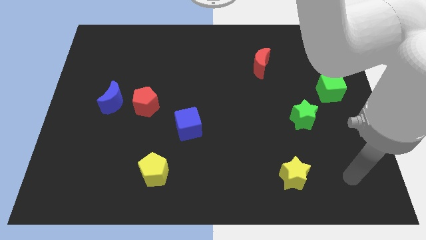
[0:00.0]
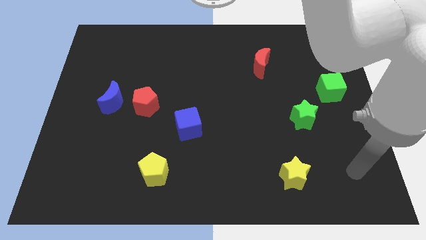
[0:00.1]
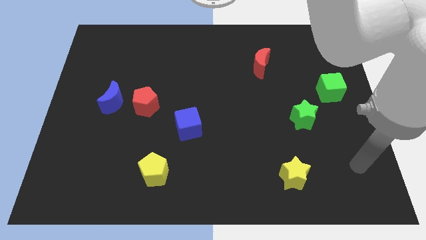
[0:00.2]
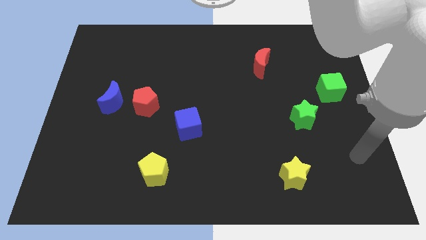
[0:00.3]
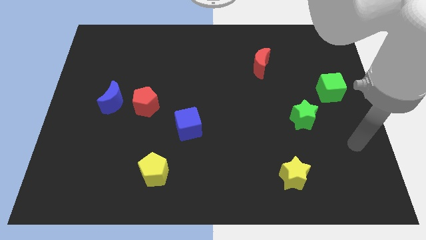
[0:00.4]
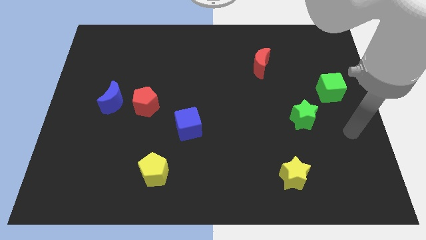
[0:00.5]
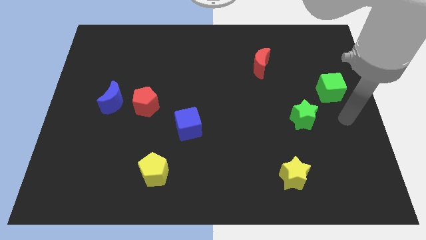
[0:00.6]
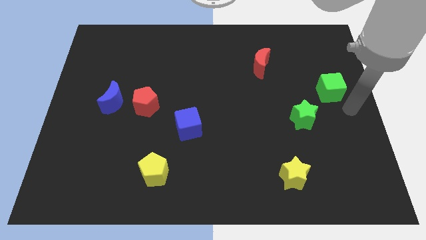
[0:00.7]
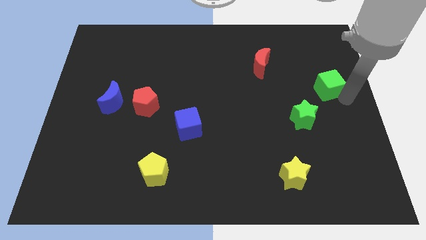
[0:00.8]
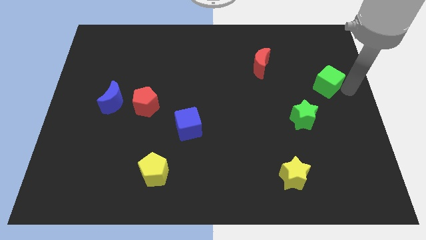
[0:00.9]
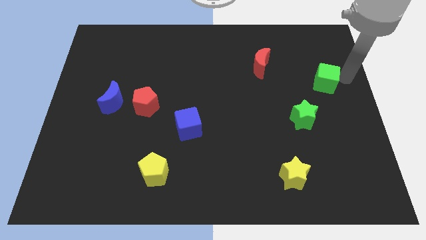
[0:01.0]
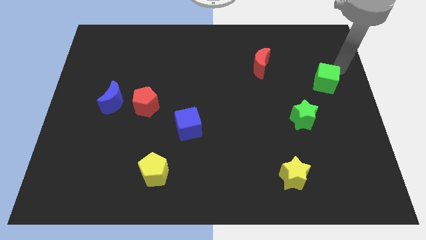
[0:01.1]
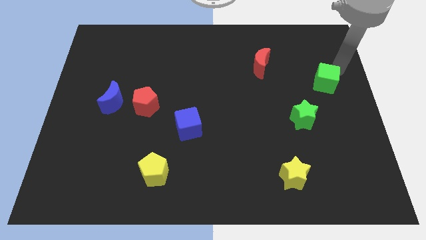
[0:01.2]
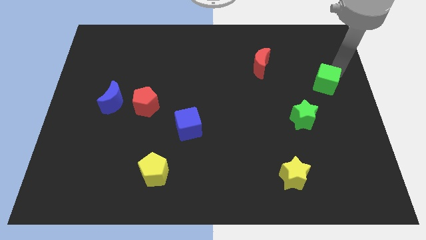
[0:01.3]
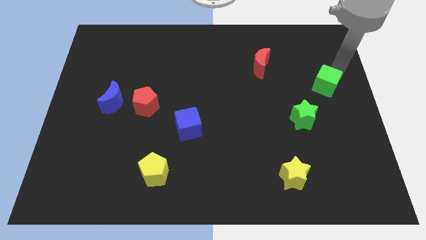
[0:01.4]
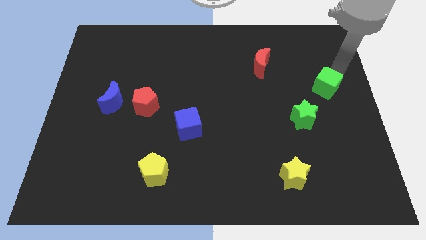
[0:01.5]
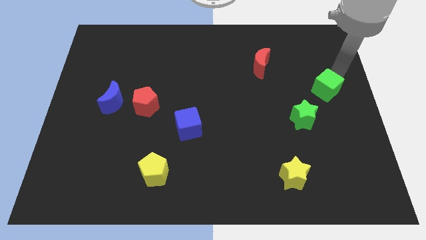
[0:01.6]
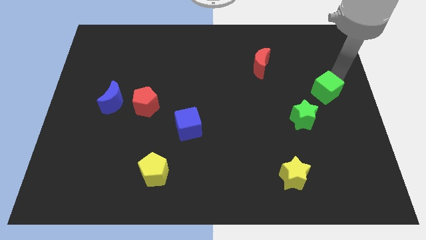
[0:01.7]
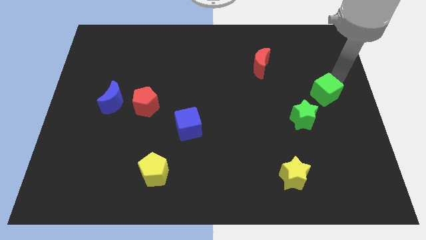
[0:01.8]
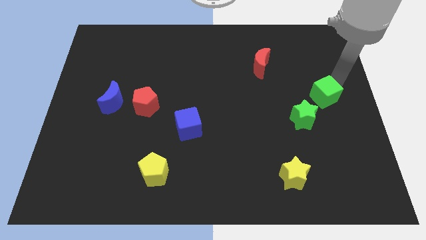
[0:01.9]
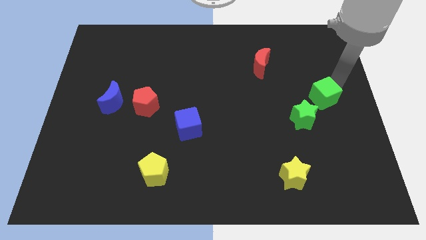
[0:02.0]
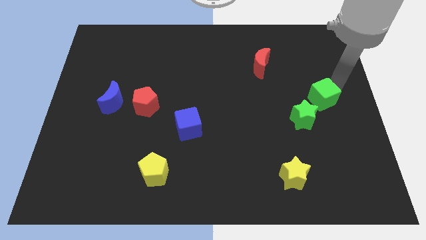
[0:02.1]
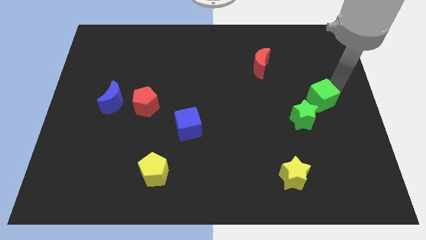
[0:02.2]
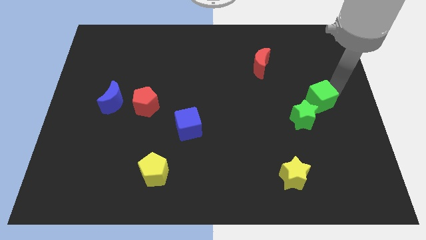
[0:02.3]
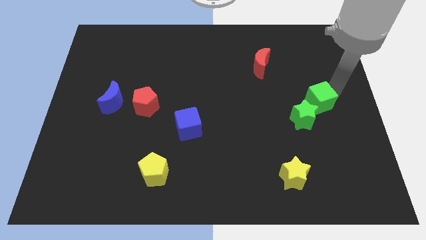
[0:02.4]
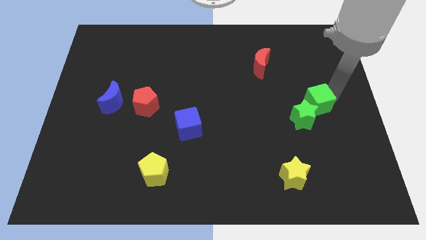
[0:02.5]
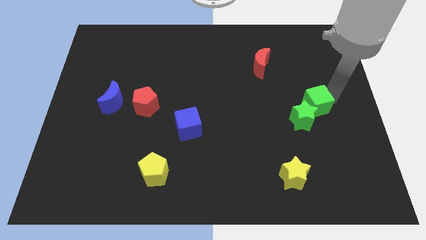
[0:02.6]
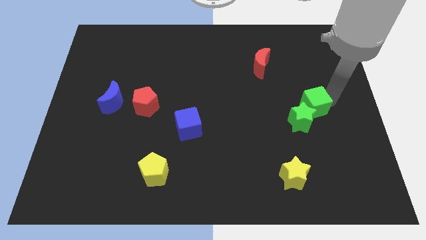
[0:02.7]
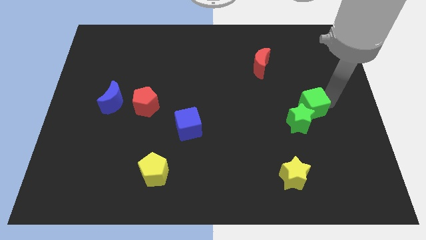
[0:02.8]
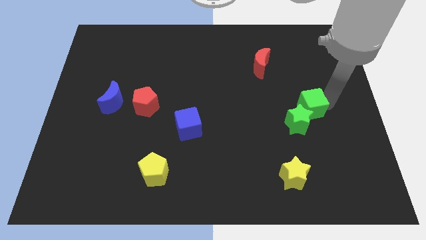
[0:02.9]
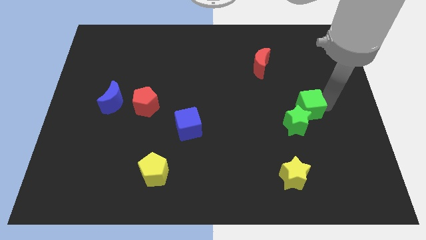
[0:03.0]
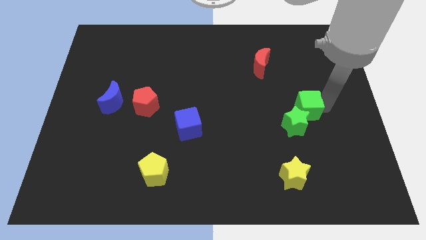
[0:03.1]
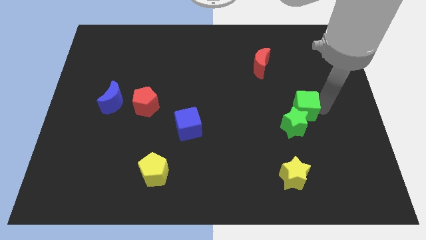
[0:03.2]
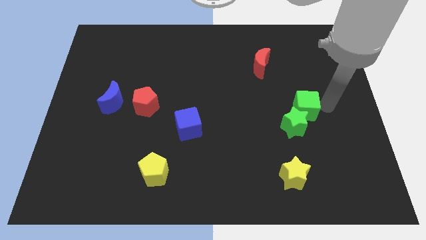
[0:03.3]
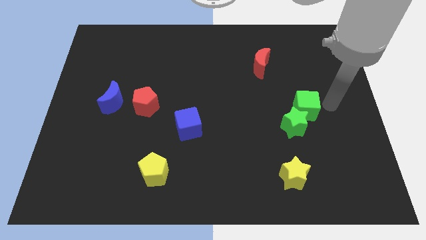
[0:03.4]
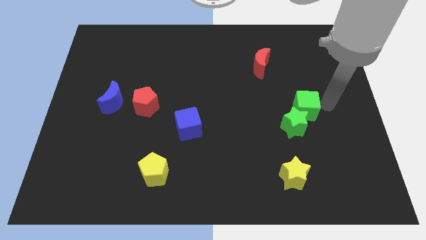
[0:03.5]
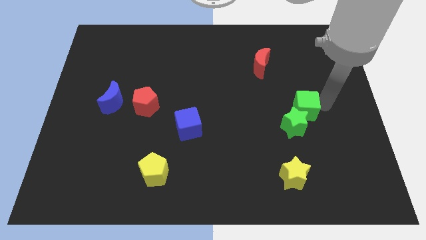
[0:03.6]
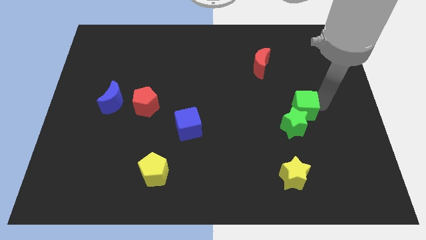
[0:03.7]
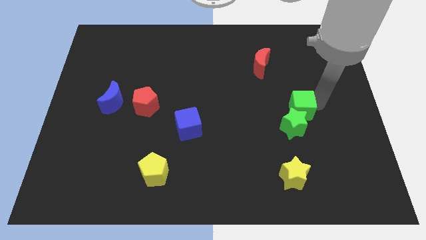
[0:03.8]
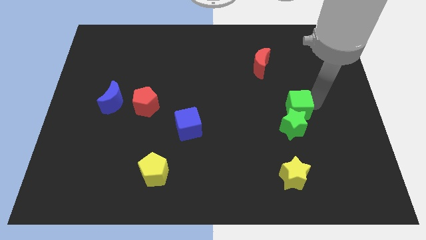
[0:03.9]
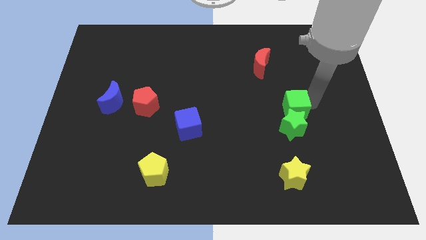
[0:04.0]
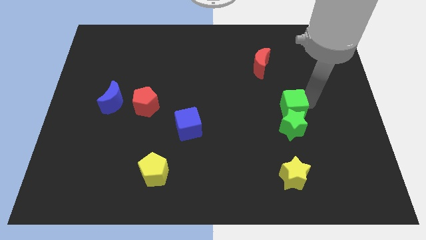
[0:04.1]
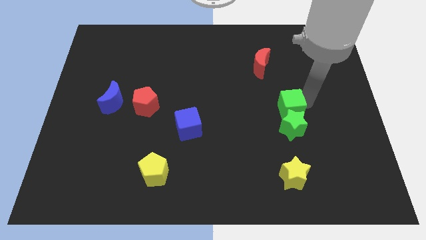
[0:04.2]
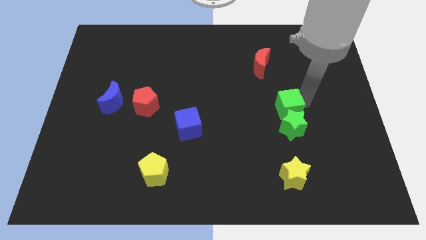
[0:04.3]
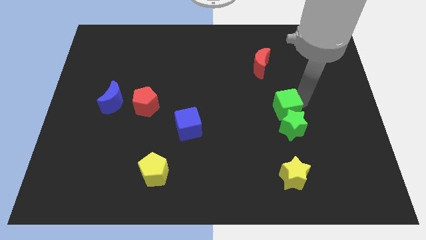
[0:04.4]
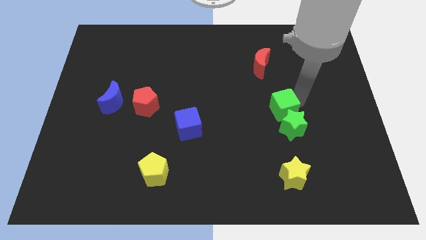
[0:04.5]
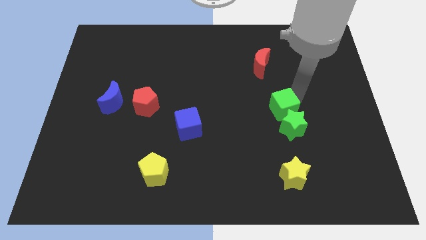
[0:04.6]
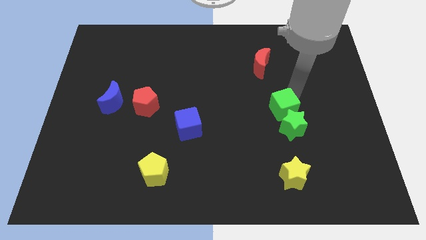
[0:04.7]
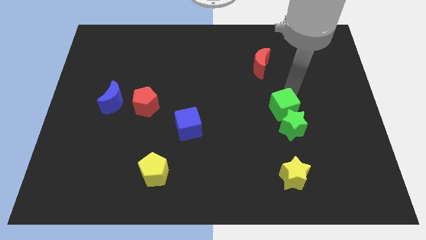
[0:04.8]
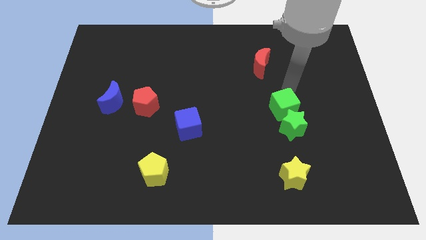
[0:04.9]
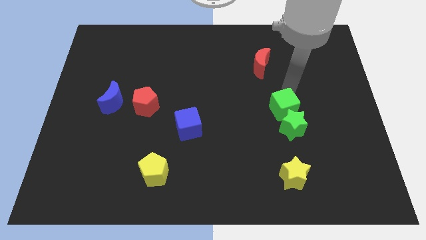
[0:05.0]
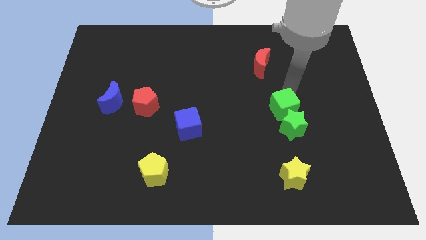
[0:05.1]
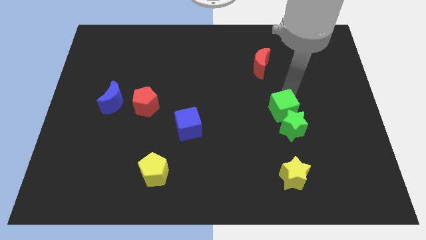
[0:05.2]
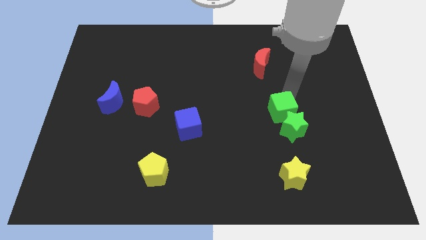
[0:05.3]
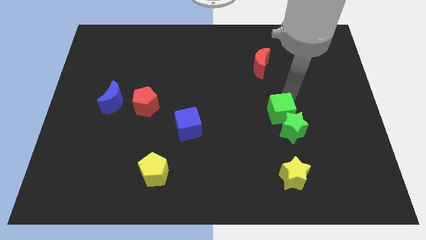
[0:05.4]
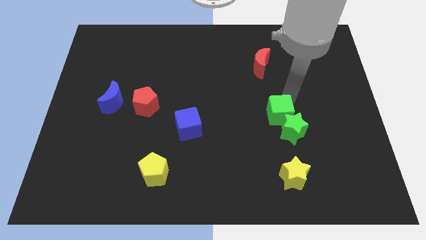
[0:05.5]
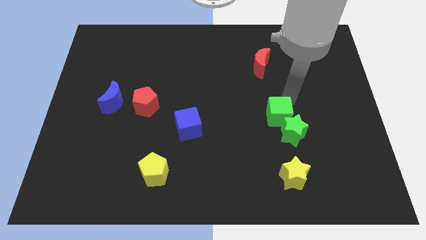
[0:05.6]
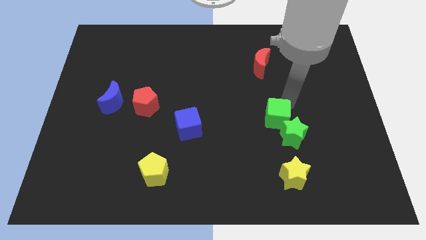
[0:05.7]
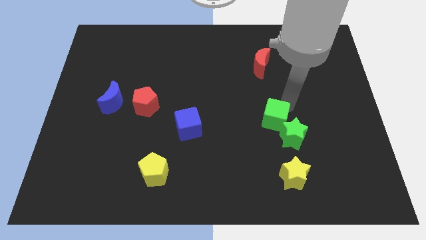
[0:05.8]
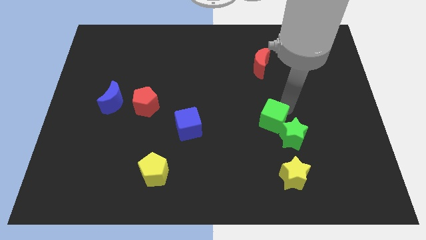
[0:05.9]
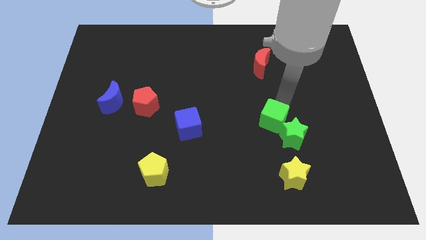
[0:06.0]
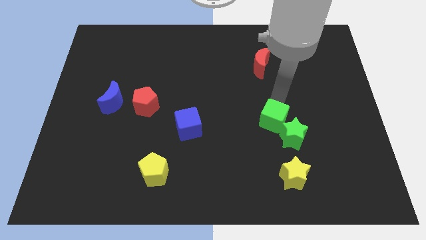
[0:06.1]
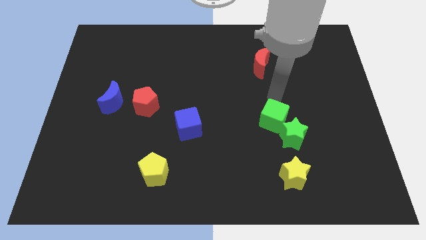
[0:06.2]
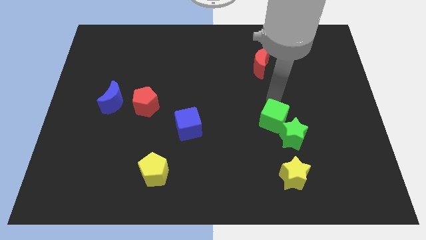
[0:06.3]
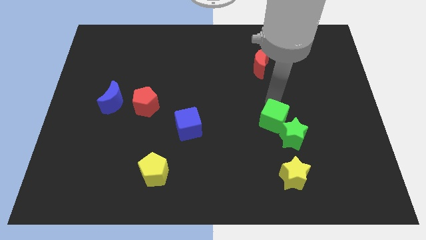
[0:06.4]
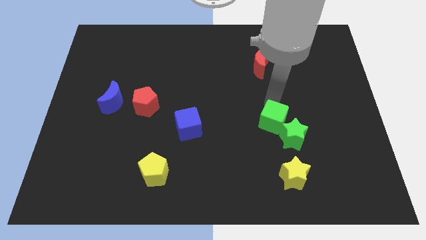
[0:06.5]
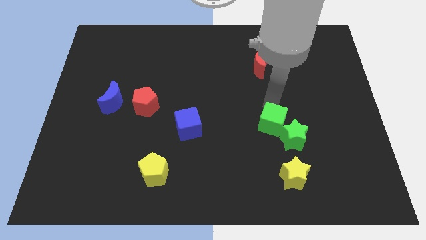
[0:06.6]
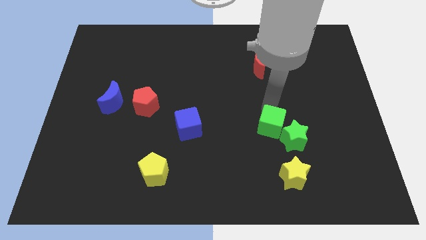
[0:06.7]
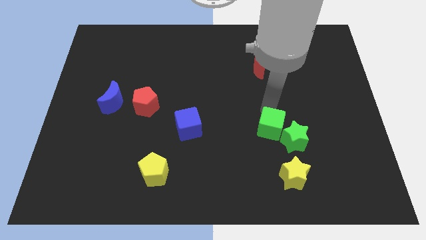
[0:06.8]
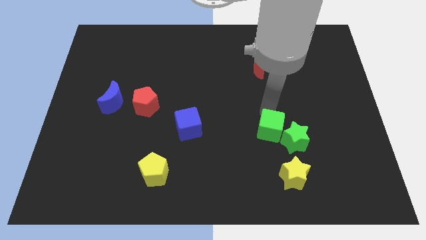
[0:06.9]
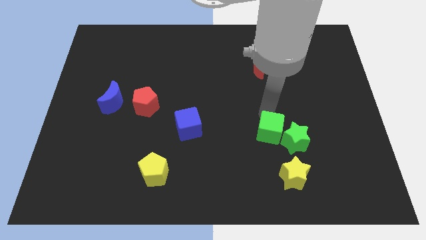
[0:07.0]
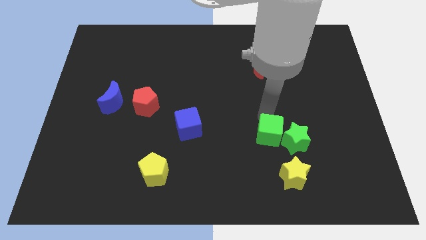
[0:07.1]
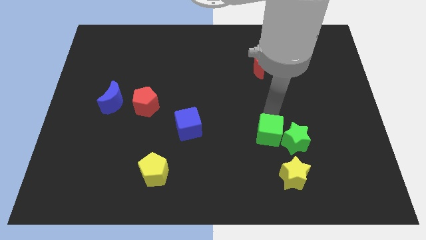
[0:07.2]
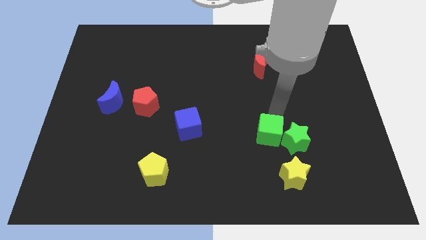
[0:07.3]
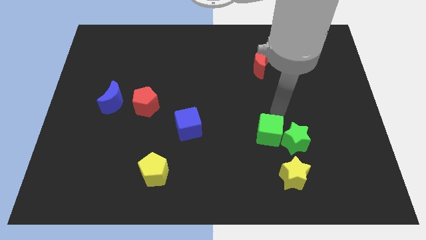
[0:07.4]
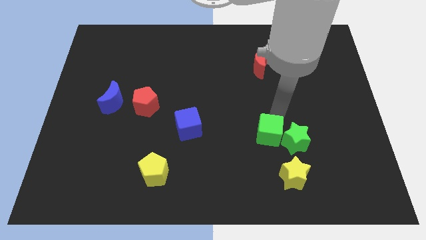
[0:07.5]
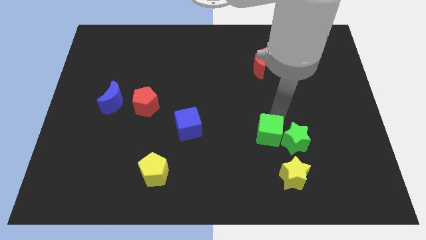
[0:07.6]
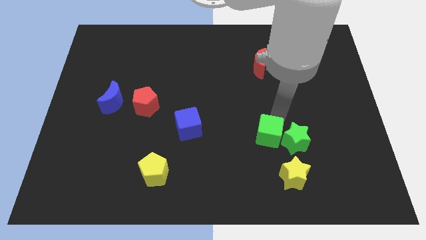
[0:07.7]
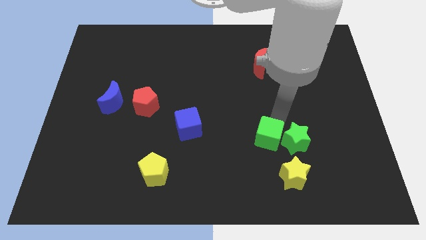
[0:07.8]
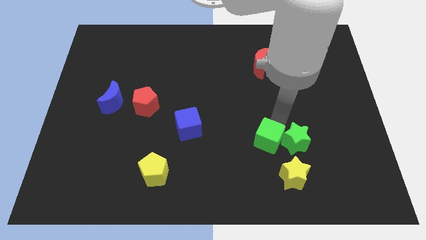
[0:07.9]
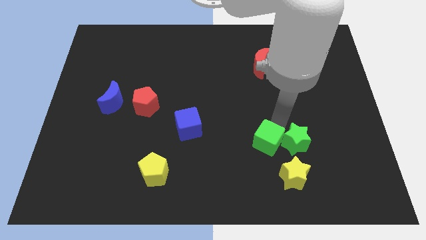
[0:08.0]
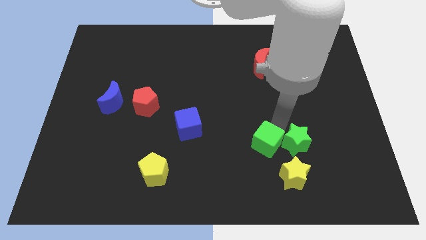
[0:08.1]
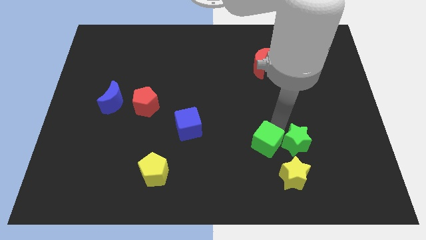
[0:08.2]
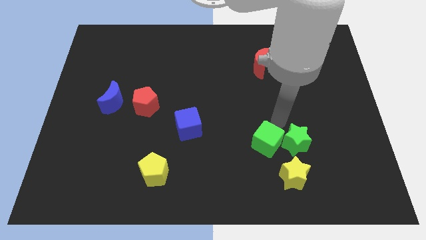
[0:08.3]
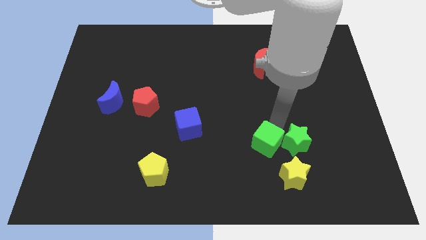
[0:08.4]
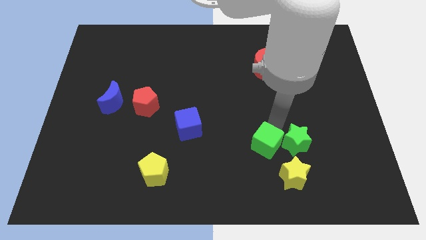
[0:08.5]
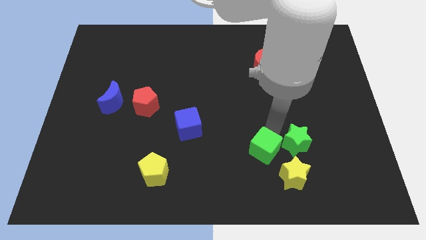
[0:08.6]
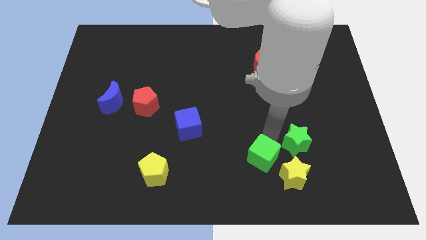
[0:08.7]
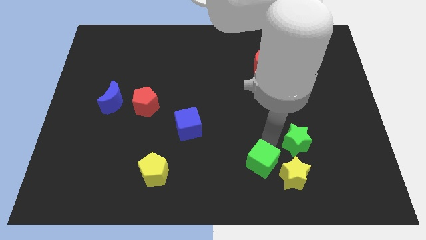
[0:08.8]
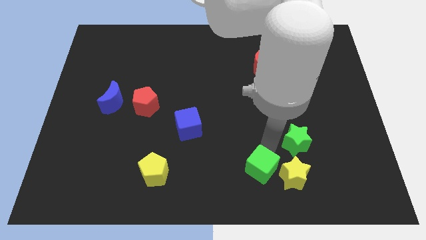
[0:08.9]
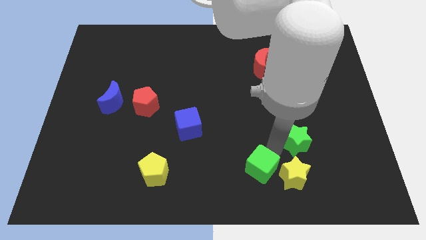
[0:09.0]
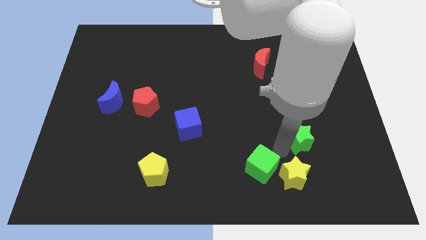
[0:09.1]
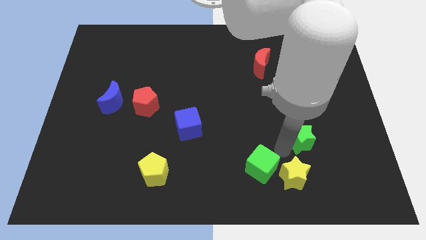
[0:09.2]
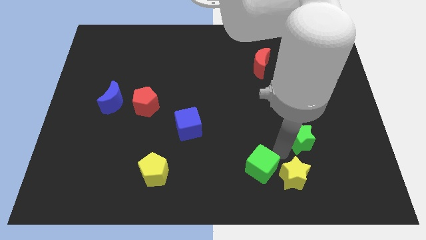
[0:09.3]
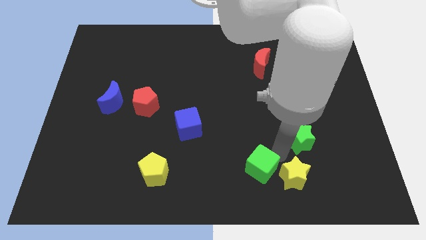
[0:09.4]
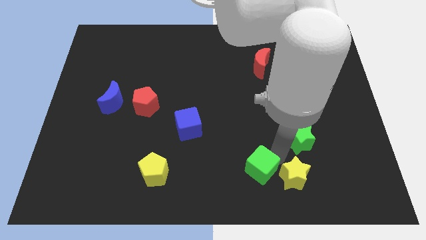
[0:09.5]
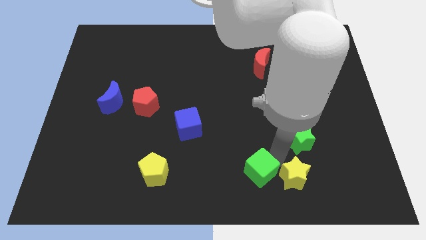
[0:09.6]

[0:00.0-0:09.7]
push the green cube to the bottom
